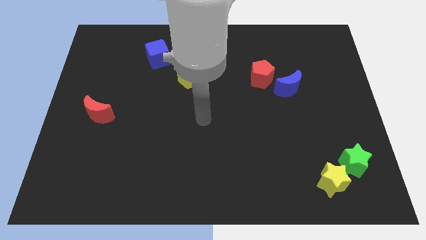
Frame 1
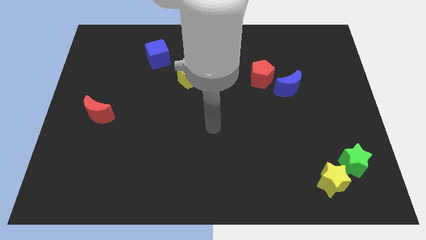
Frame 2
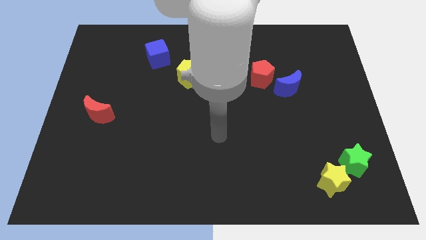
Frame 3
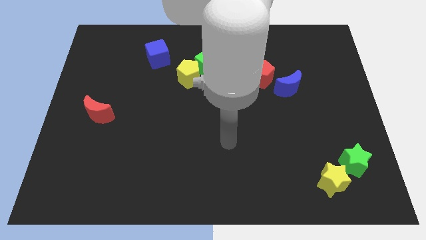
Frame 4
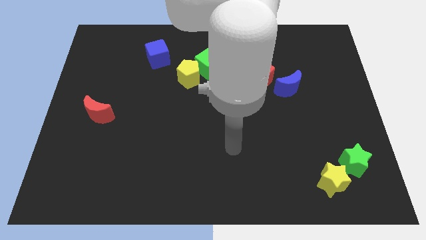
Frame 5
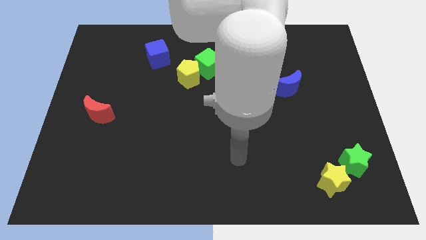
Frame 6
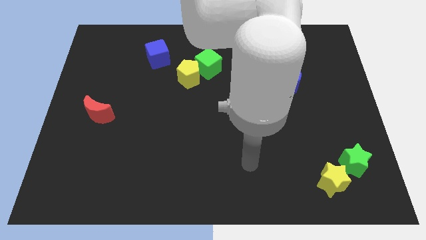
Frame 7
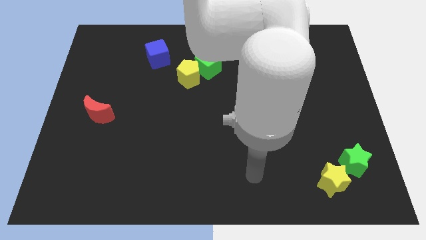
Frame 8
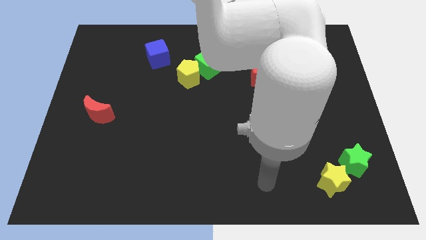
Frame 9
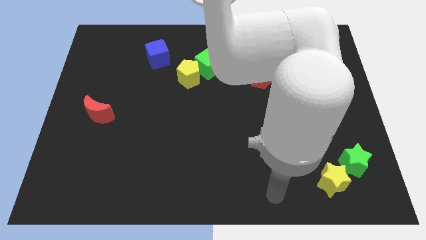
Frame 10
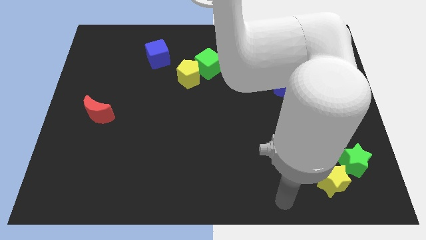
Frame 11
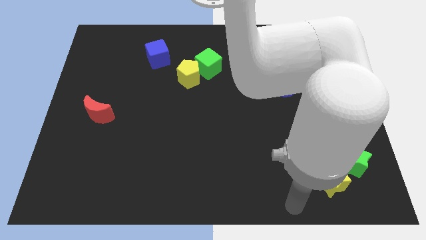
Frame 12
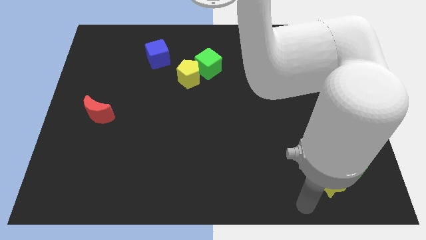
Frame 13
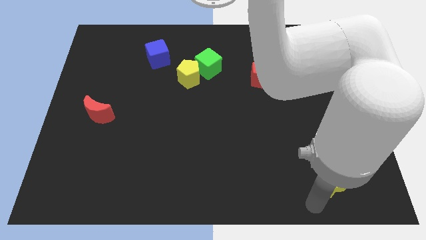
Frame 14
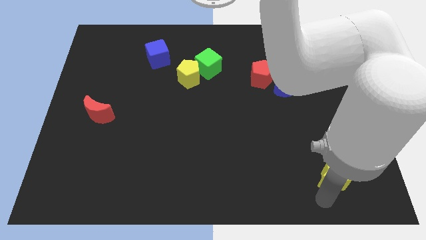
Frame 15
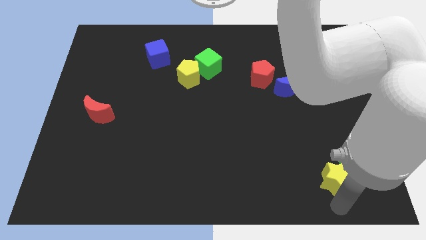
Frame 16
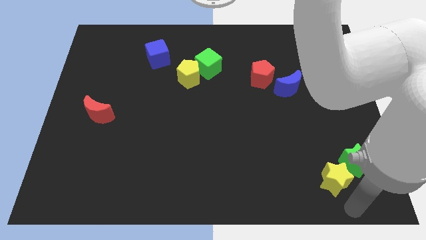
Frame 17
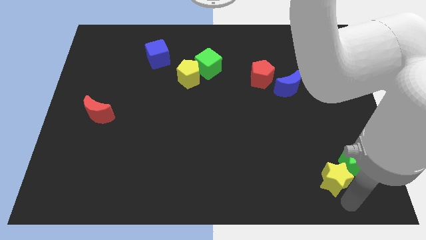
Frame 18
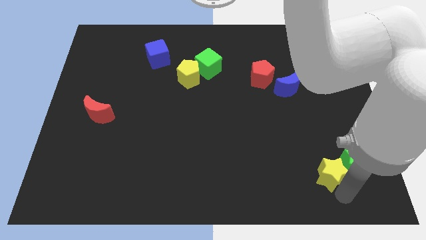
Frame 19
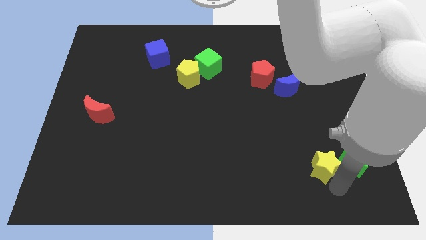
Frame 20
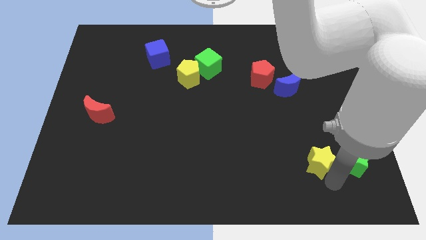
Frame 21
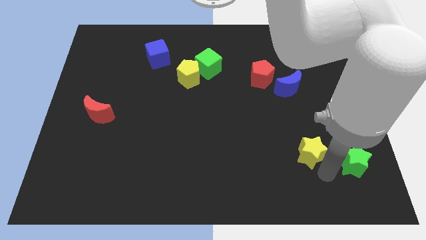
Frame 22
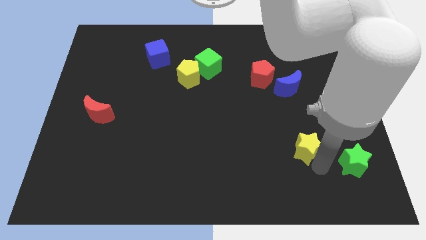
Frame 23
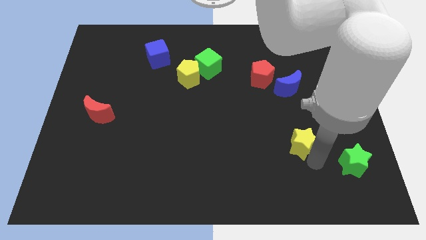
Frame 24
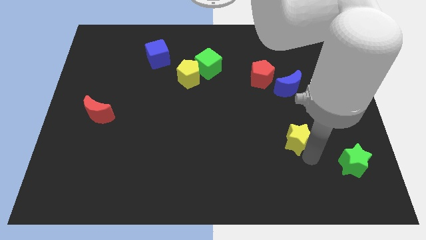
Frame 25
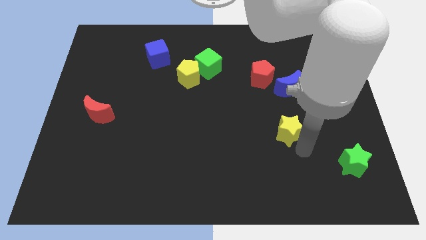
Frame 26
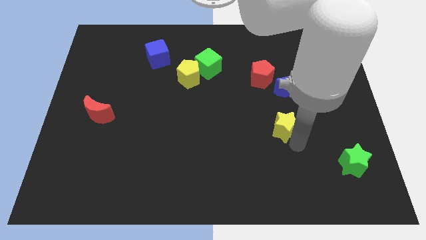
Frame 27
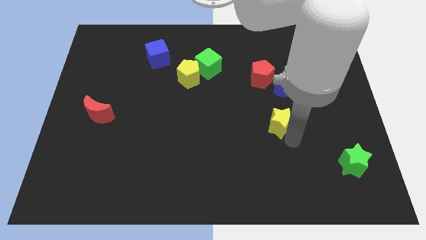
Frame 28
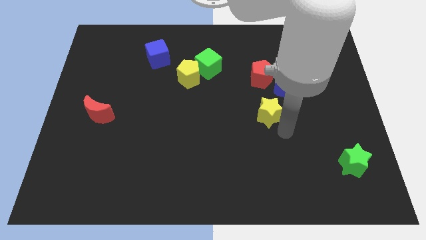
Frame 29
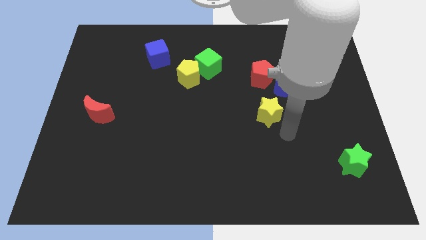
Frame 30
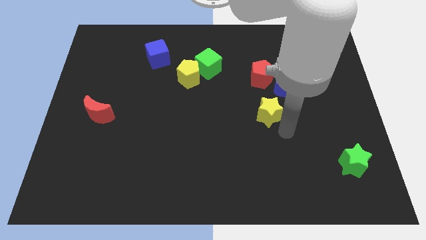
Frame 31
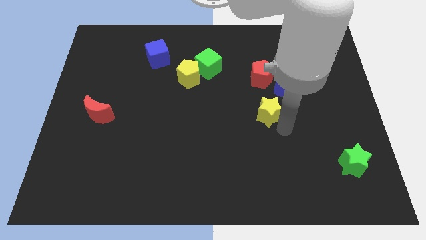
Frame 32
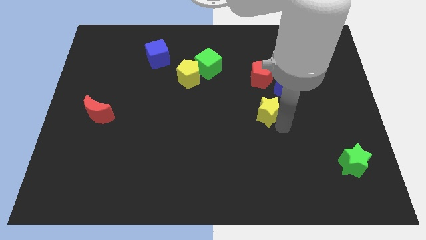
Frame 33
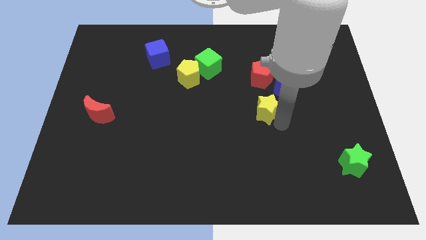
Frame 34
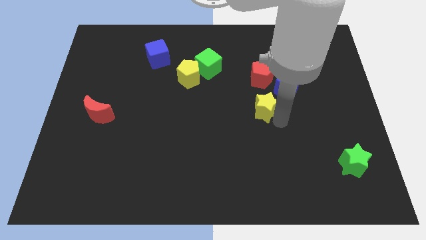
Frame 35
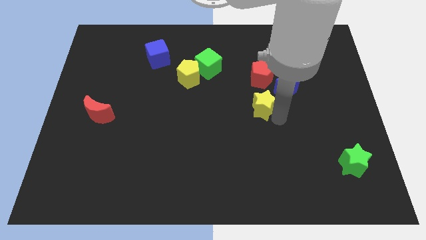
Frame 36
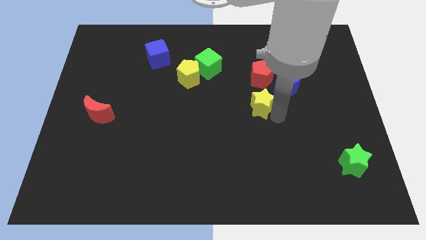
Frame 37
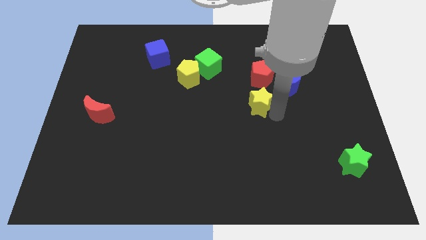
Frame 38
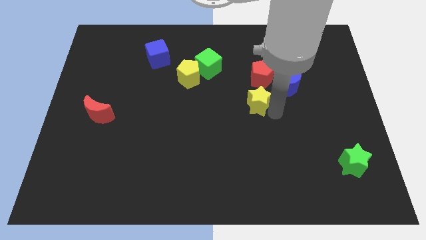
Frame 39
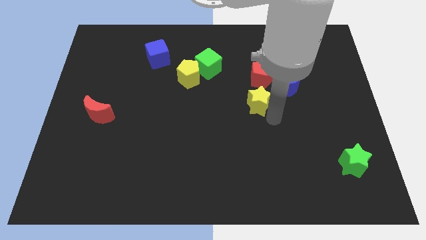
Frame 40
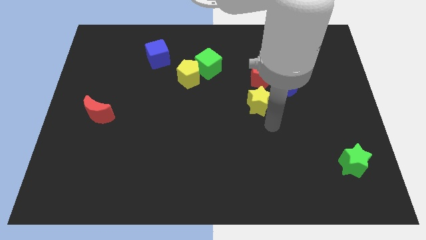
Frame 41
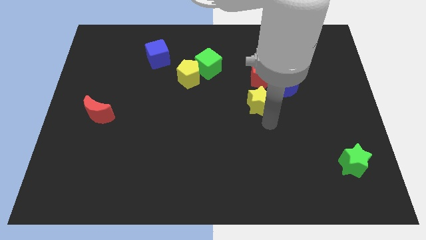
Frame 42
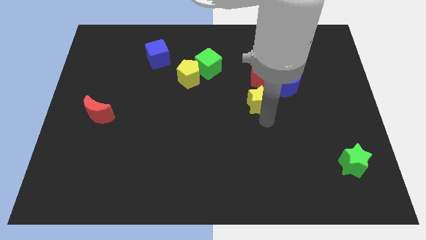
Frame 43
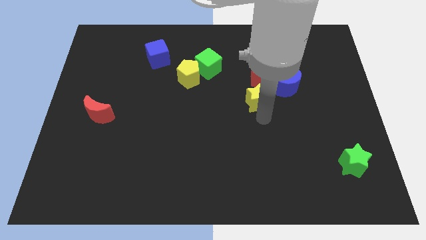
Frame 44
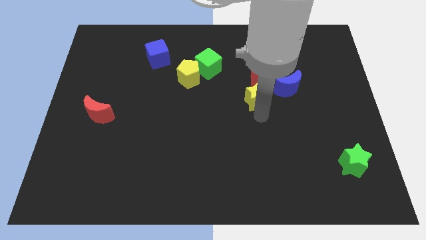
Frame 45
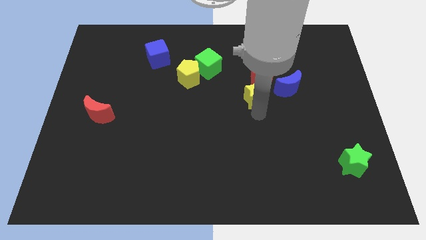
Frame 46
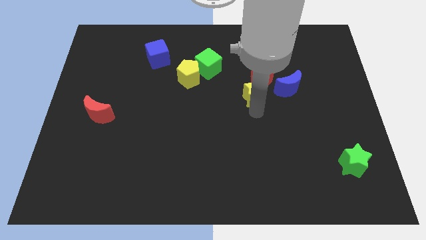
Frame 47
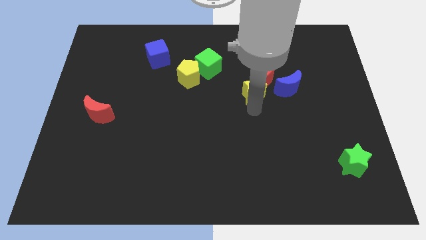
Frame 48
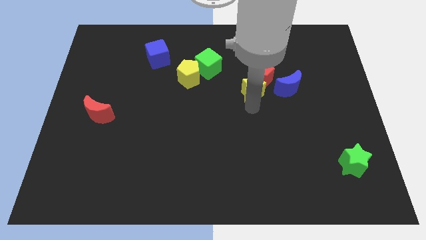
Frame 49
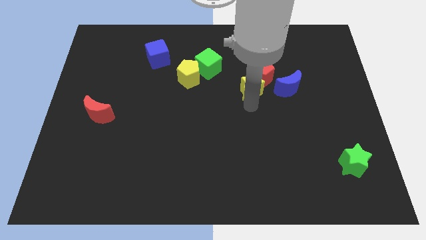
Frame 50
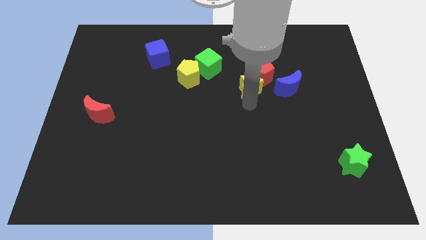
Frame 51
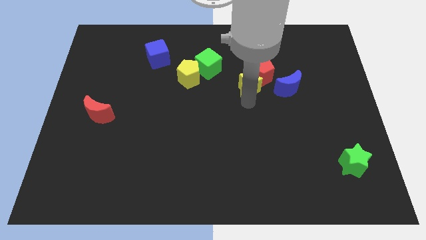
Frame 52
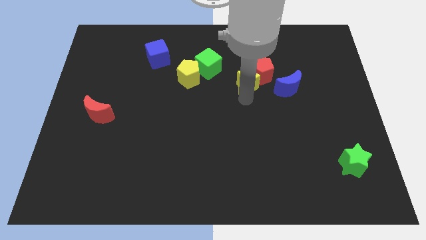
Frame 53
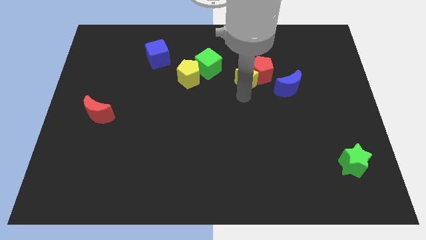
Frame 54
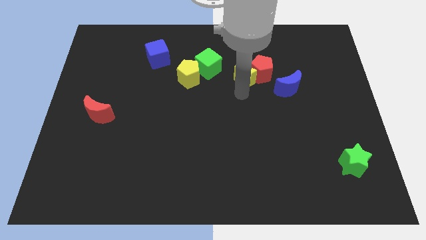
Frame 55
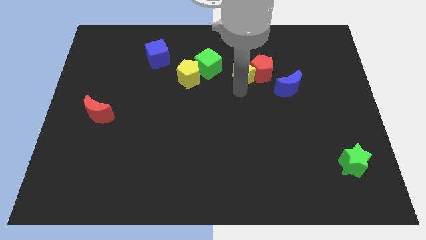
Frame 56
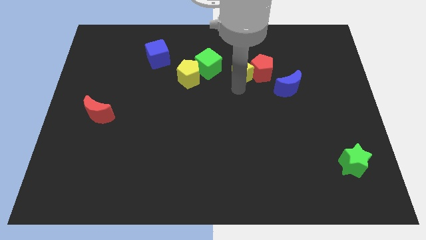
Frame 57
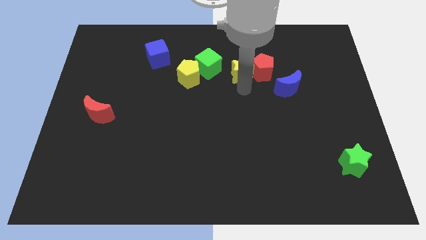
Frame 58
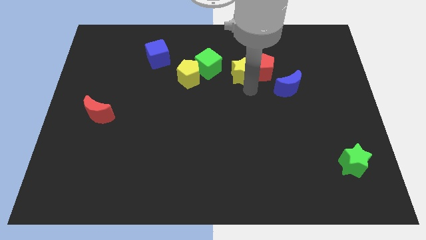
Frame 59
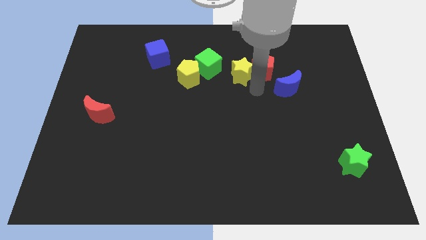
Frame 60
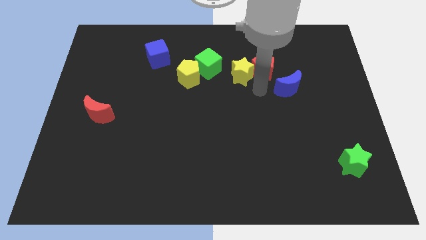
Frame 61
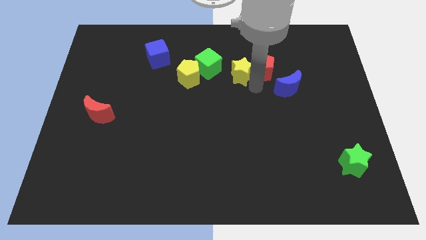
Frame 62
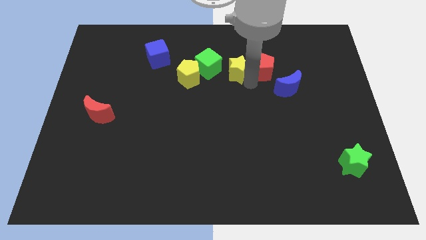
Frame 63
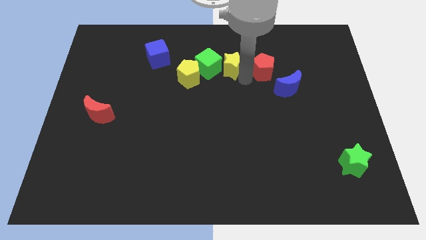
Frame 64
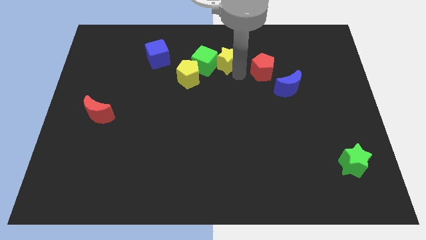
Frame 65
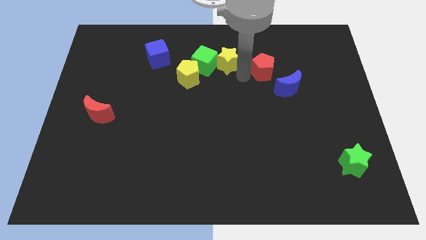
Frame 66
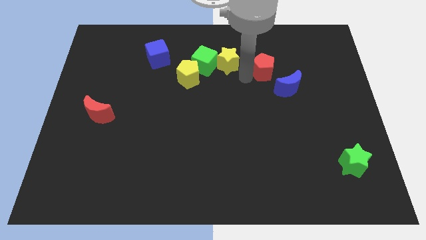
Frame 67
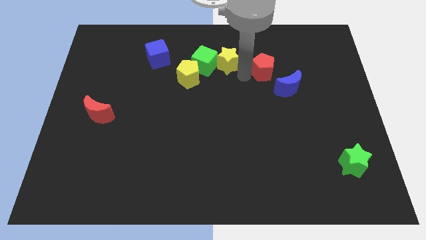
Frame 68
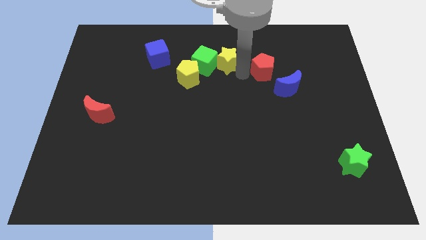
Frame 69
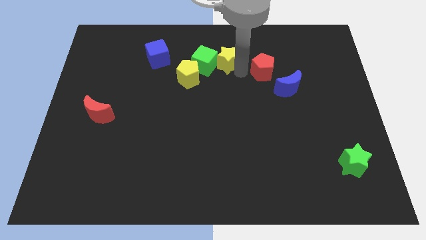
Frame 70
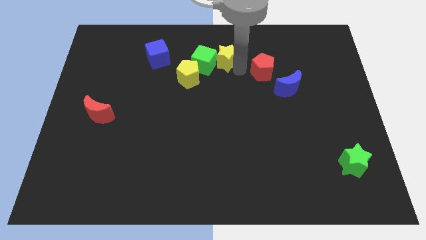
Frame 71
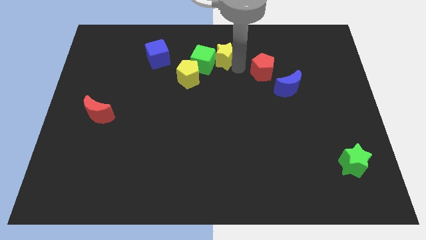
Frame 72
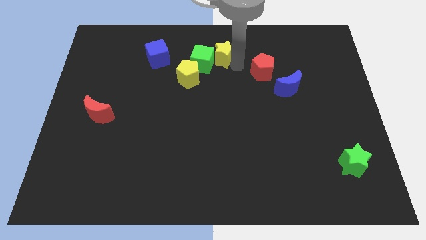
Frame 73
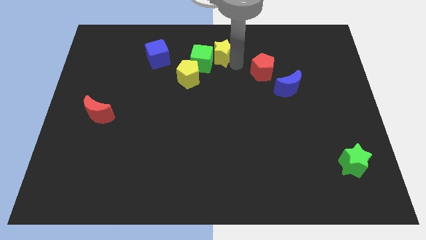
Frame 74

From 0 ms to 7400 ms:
move the yellow star to the top
